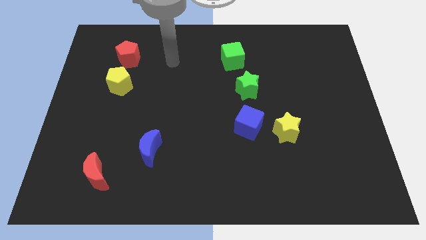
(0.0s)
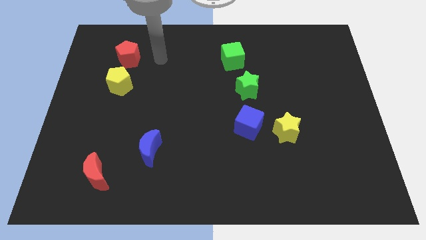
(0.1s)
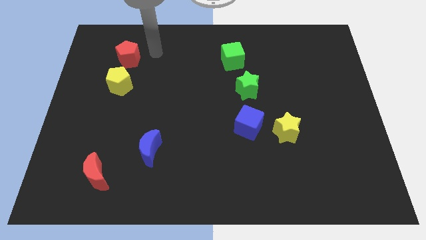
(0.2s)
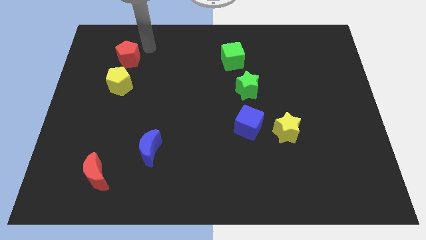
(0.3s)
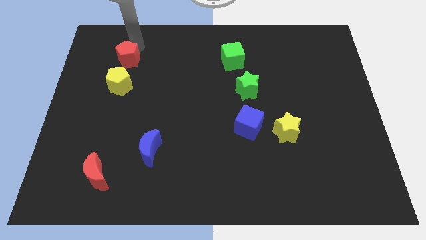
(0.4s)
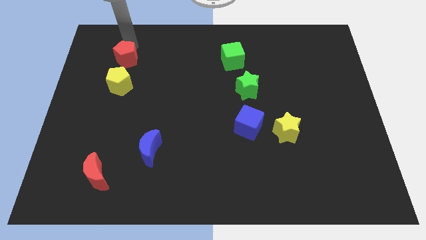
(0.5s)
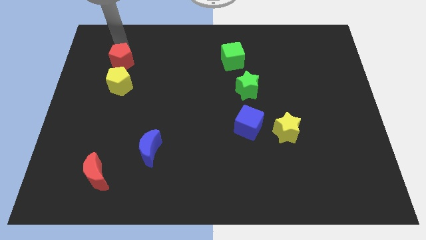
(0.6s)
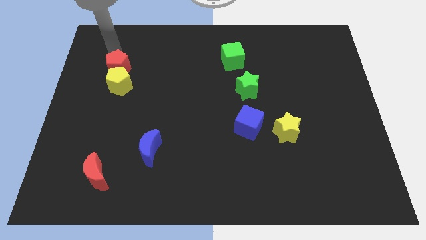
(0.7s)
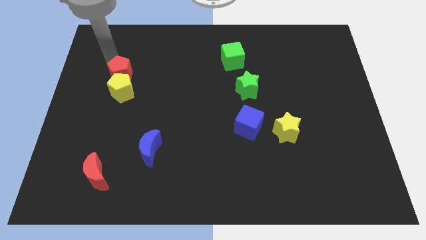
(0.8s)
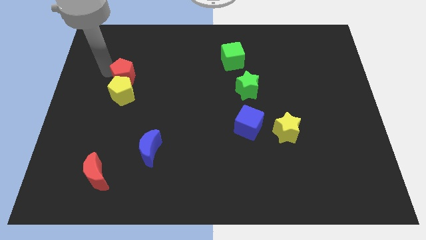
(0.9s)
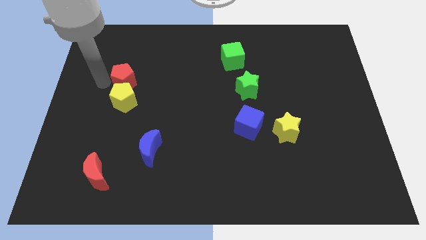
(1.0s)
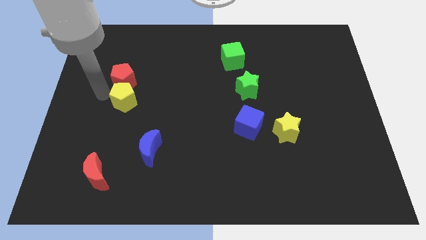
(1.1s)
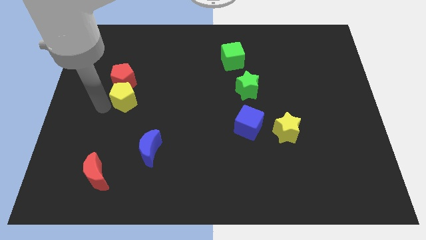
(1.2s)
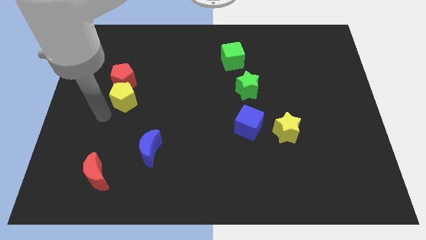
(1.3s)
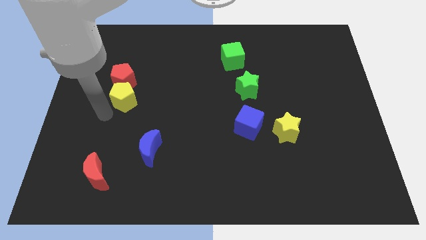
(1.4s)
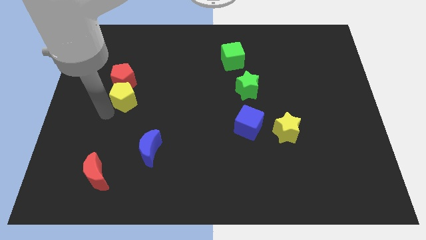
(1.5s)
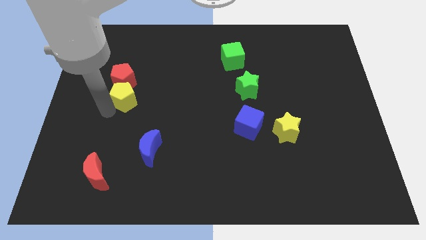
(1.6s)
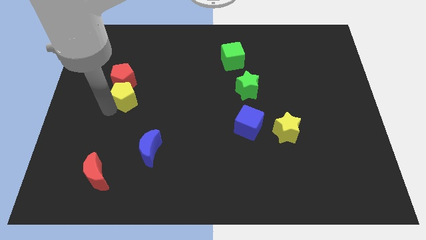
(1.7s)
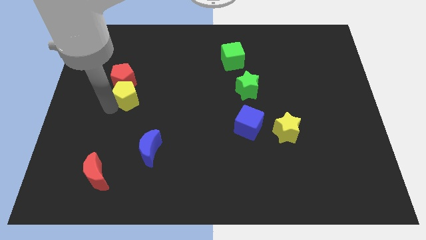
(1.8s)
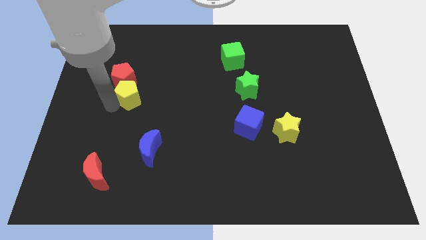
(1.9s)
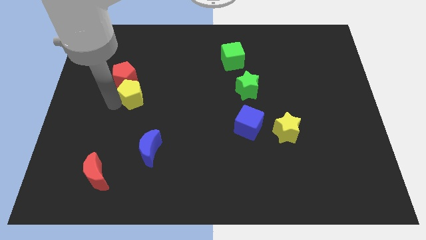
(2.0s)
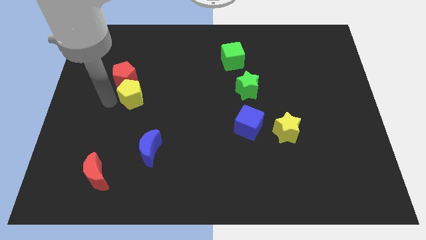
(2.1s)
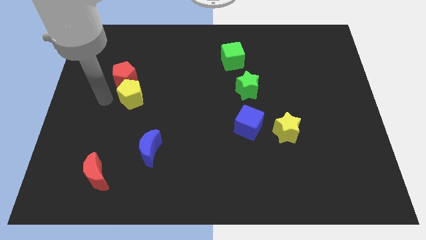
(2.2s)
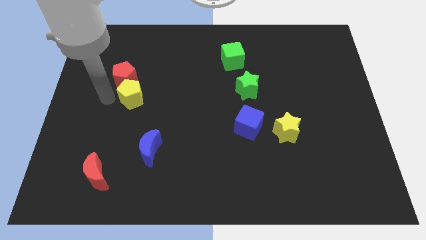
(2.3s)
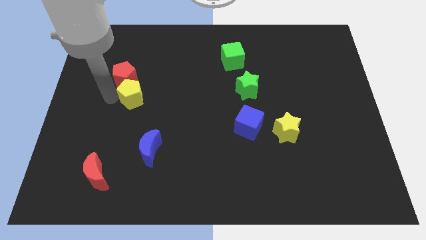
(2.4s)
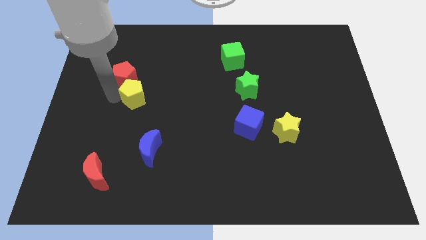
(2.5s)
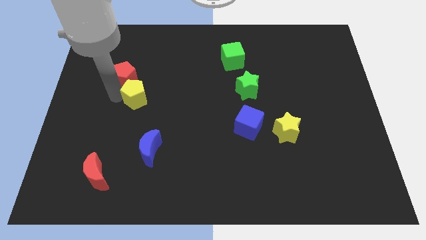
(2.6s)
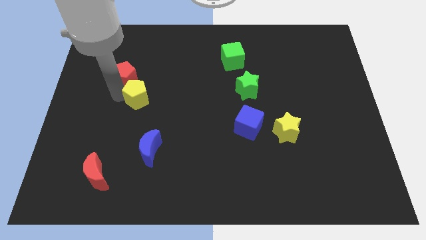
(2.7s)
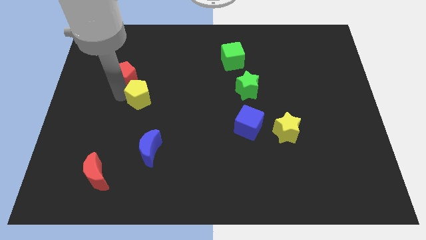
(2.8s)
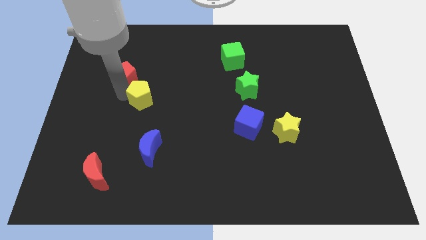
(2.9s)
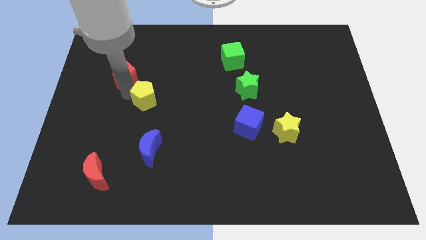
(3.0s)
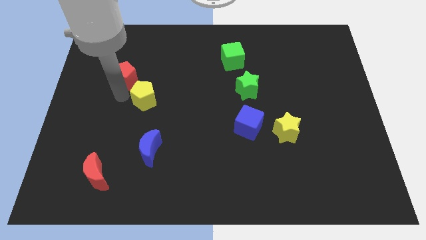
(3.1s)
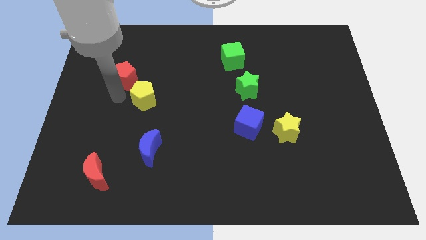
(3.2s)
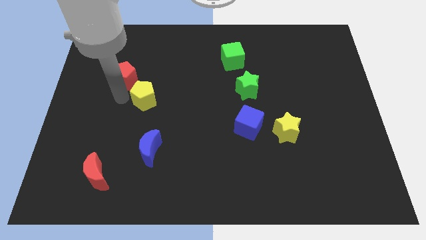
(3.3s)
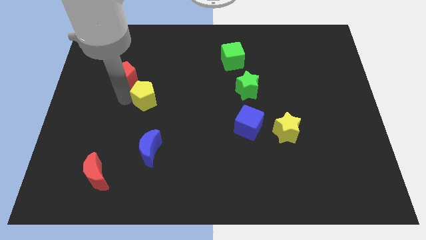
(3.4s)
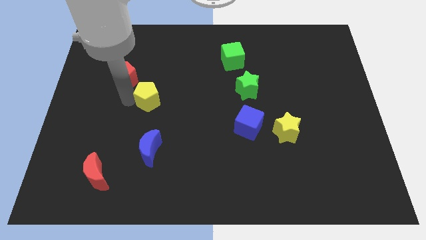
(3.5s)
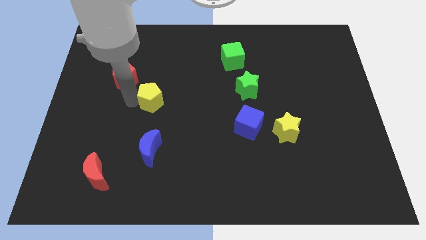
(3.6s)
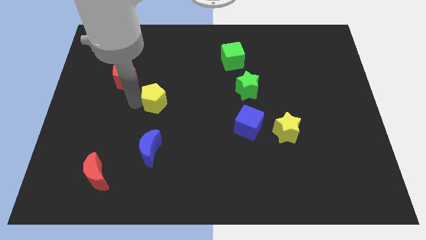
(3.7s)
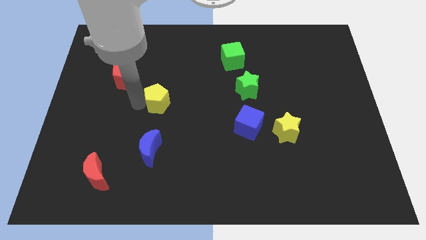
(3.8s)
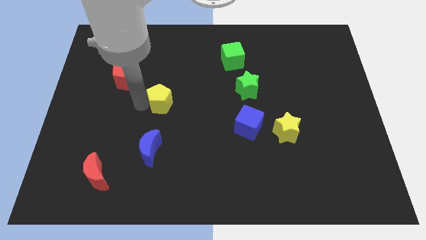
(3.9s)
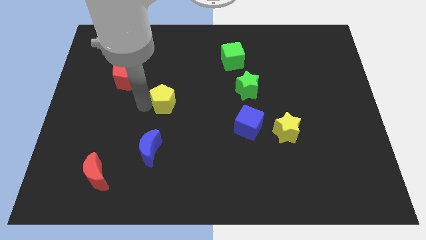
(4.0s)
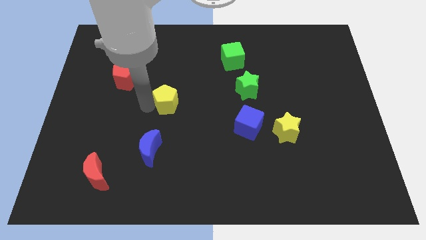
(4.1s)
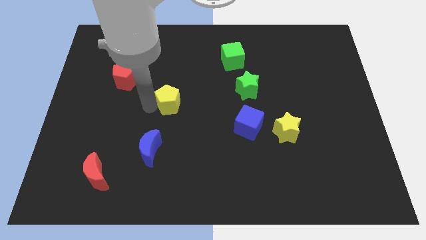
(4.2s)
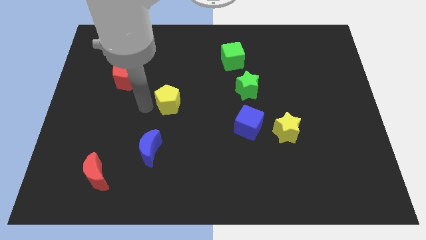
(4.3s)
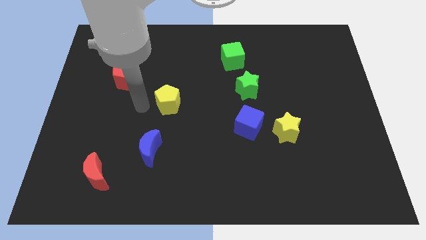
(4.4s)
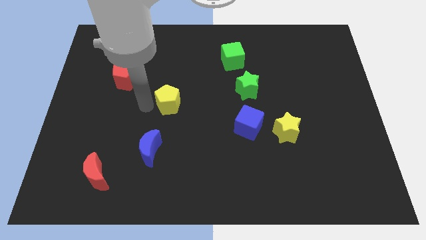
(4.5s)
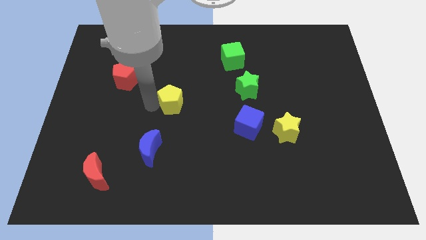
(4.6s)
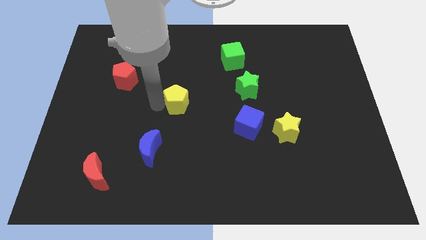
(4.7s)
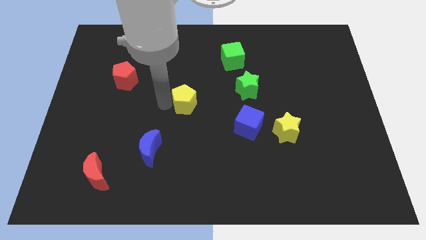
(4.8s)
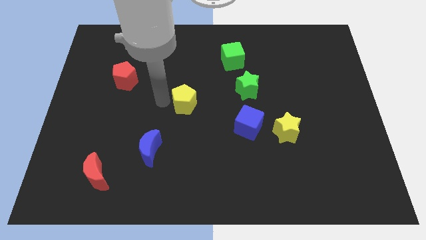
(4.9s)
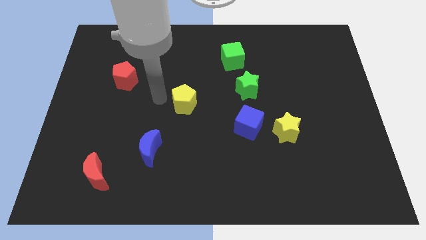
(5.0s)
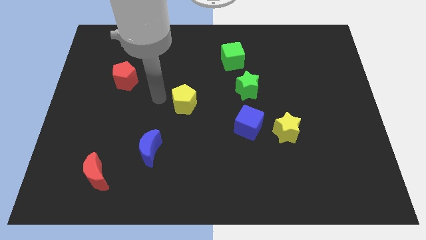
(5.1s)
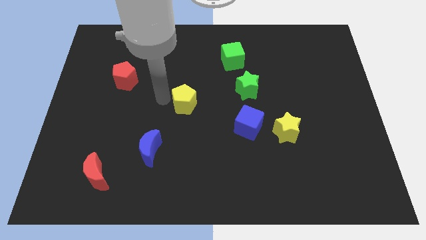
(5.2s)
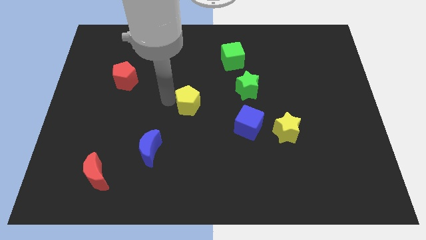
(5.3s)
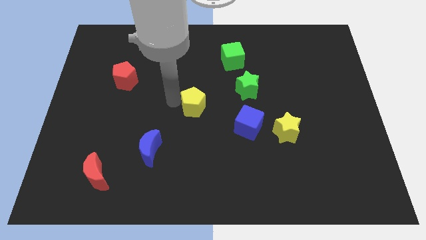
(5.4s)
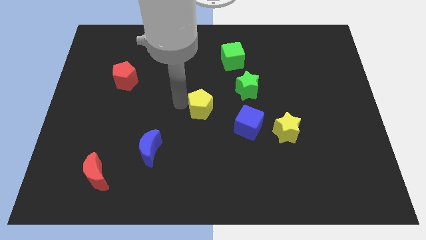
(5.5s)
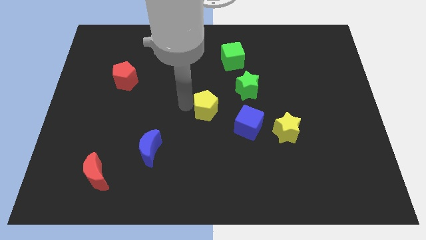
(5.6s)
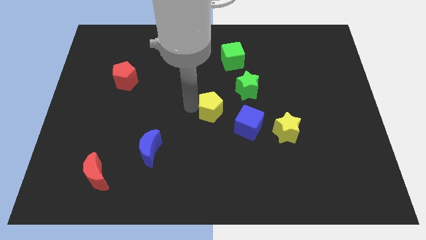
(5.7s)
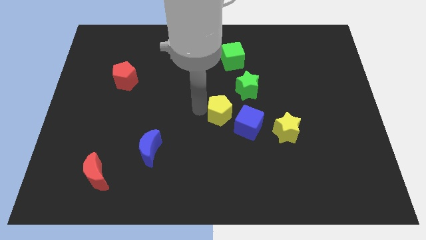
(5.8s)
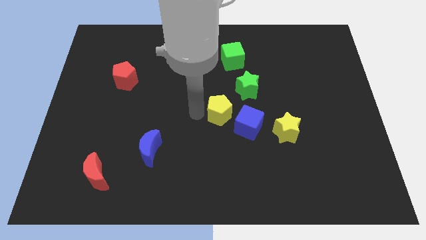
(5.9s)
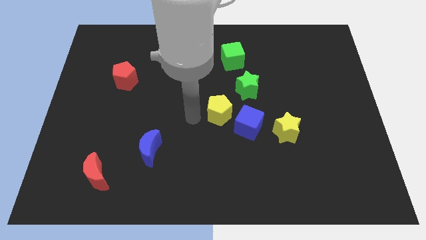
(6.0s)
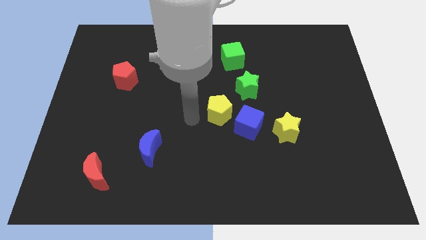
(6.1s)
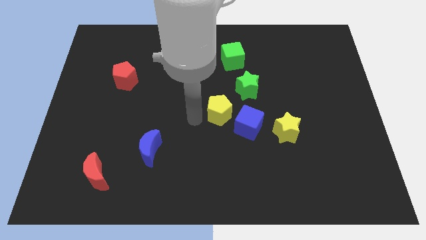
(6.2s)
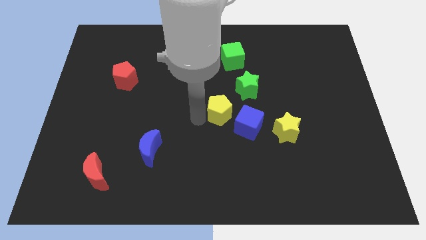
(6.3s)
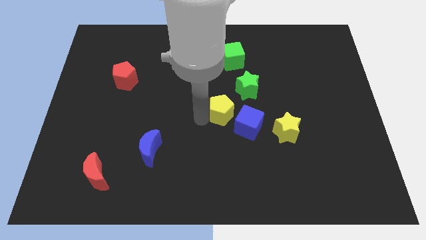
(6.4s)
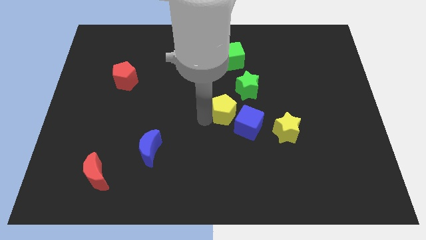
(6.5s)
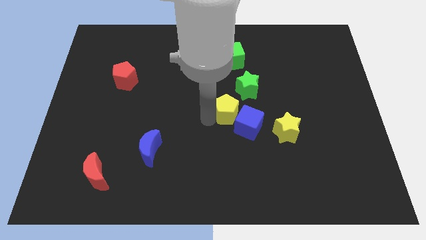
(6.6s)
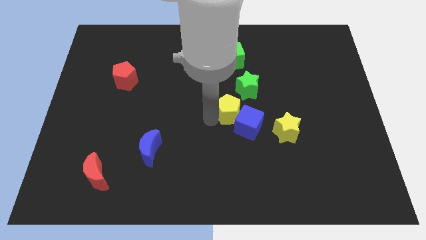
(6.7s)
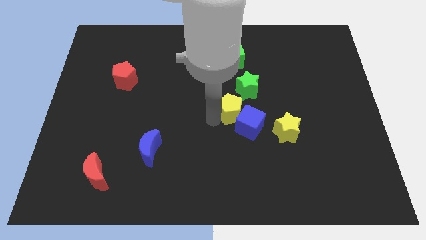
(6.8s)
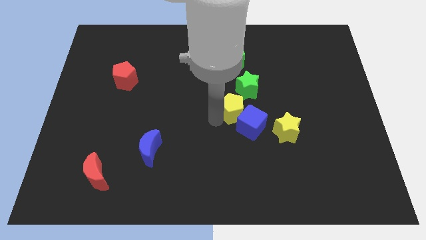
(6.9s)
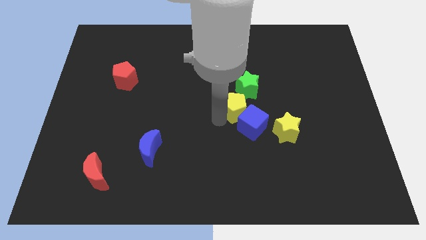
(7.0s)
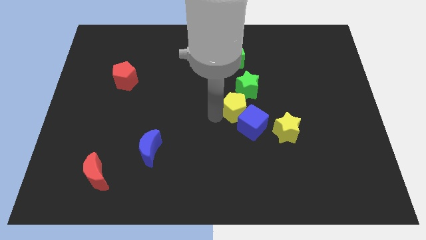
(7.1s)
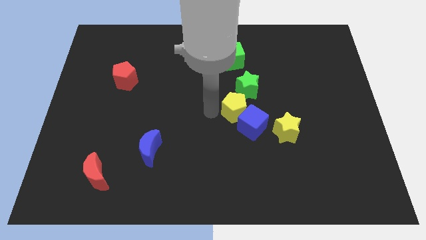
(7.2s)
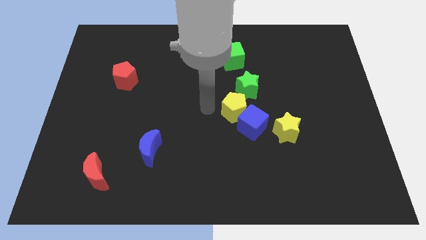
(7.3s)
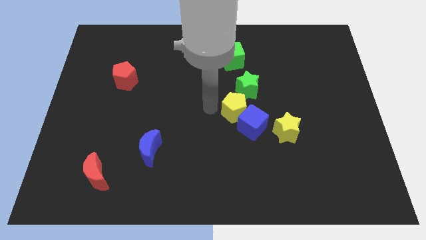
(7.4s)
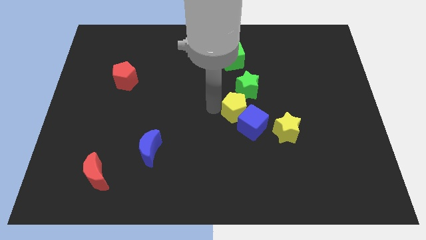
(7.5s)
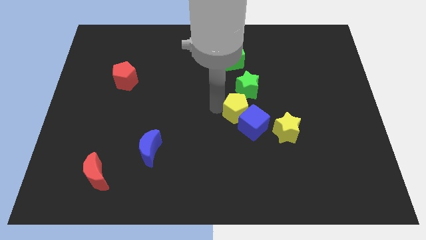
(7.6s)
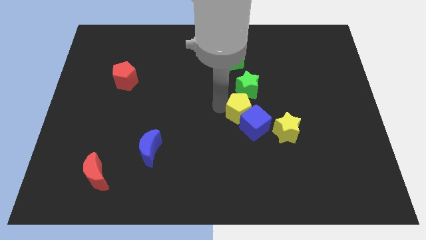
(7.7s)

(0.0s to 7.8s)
slide the yellow pentagon to the top left of the yellow star
